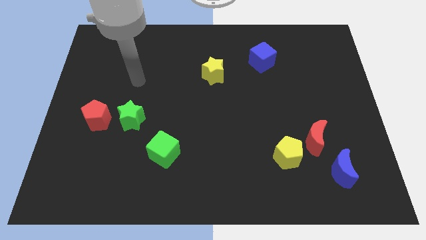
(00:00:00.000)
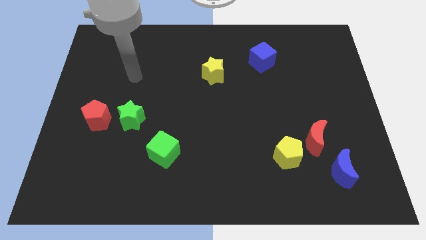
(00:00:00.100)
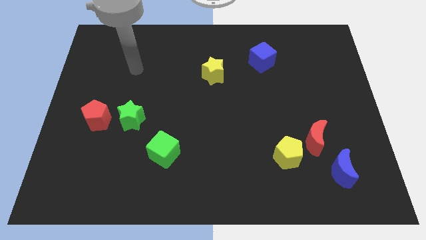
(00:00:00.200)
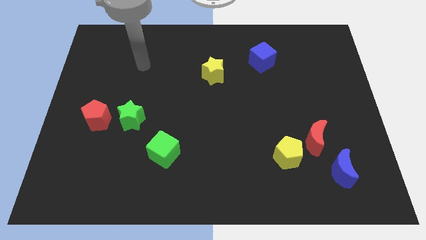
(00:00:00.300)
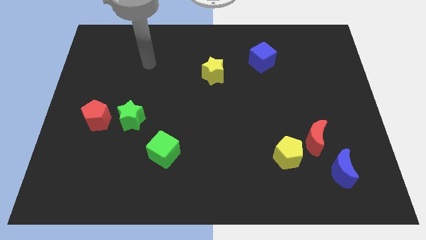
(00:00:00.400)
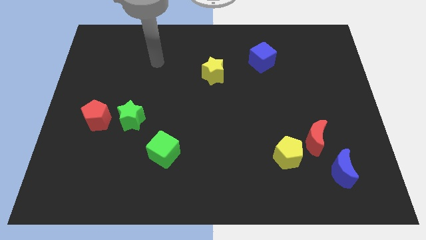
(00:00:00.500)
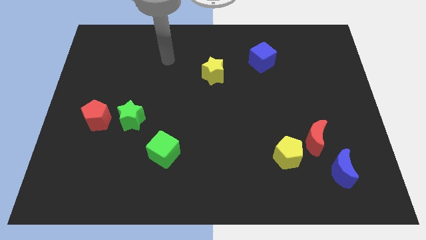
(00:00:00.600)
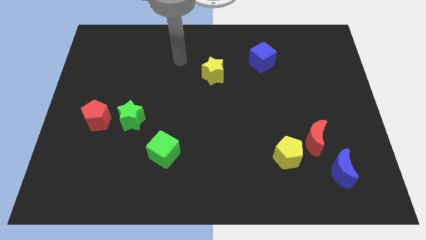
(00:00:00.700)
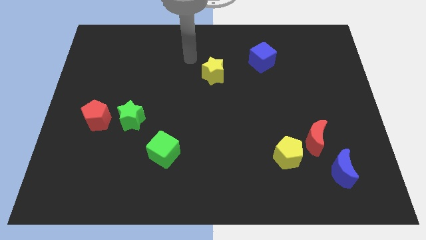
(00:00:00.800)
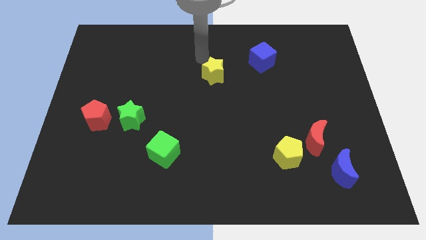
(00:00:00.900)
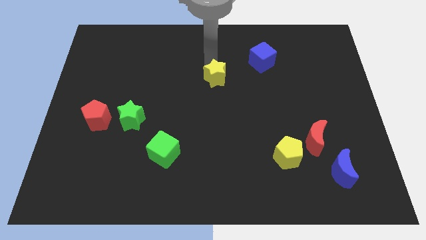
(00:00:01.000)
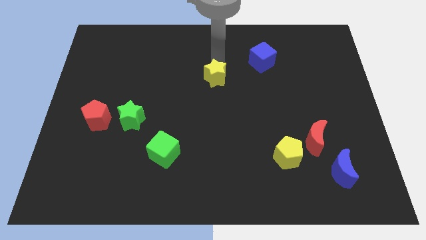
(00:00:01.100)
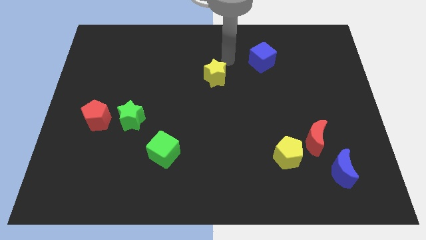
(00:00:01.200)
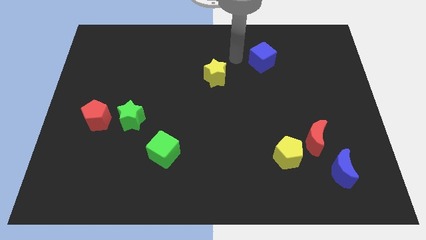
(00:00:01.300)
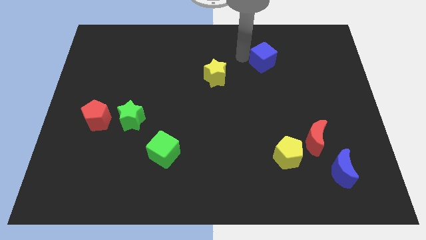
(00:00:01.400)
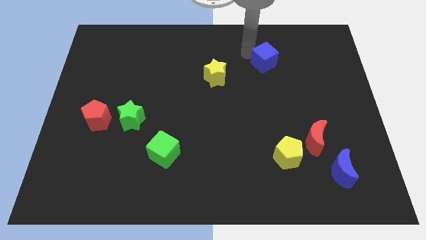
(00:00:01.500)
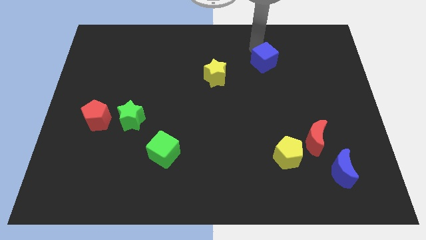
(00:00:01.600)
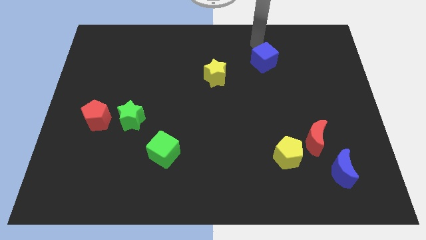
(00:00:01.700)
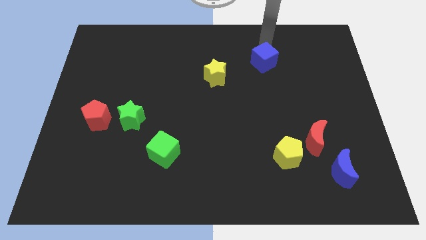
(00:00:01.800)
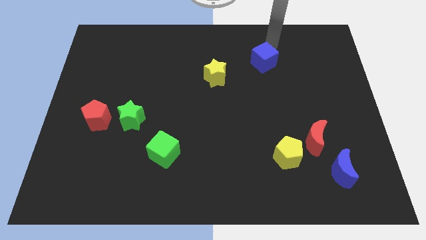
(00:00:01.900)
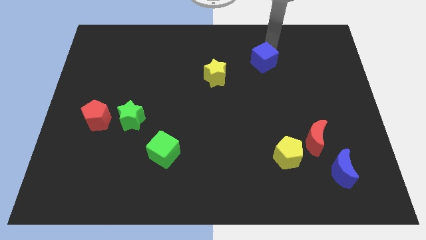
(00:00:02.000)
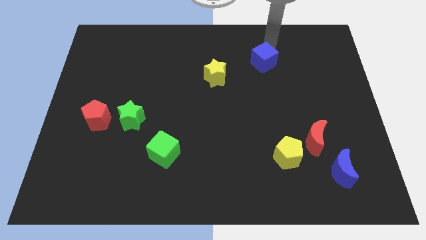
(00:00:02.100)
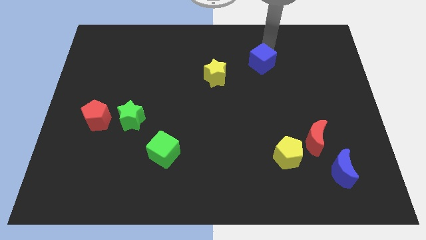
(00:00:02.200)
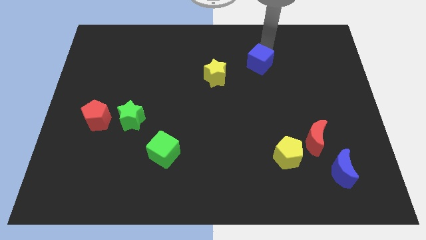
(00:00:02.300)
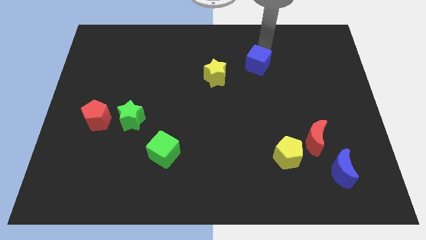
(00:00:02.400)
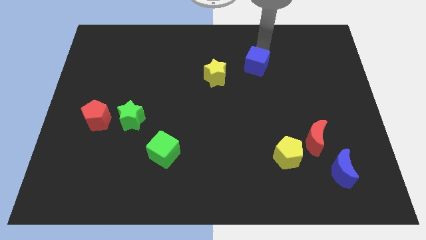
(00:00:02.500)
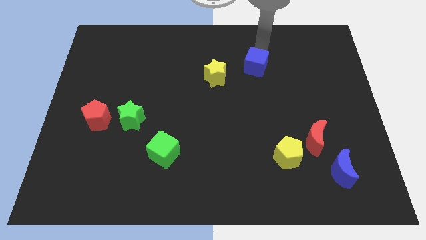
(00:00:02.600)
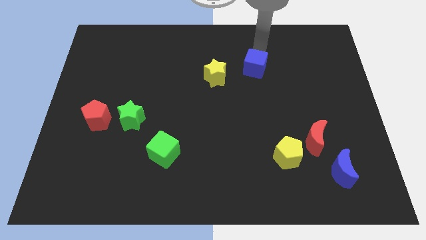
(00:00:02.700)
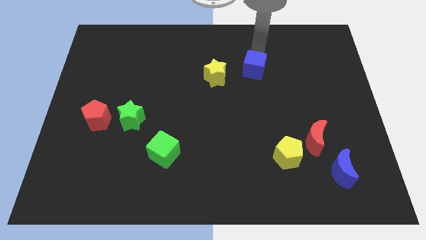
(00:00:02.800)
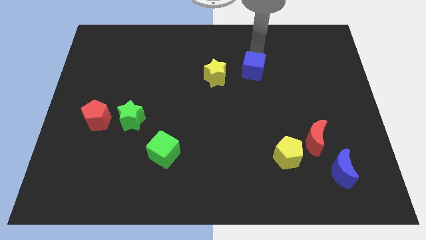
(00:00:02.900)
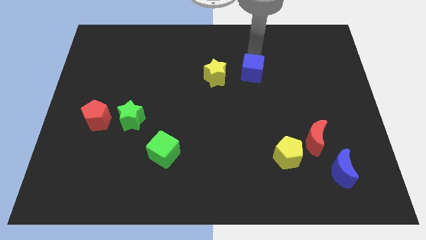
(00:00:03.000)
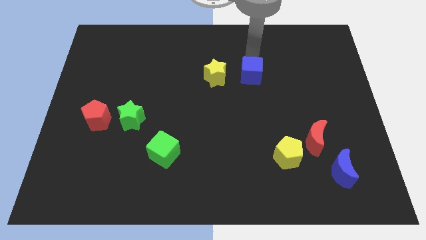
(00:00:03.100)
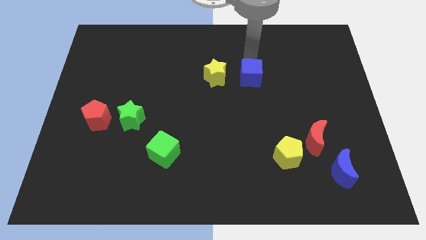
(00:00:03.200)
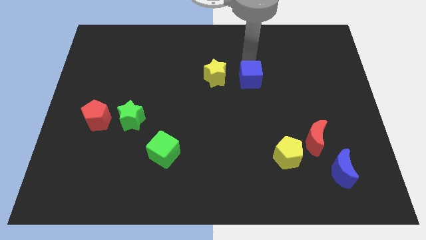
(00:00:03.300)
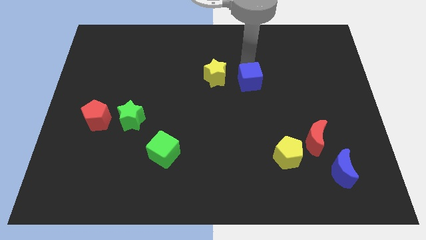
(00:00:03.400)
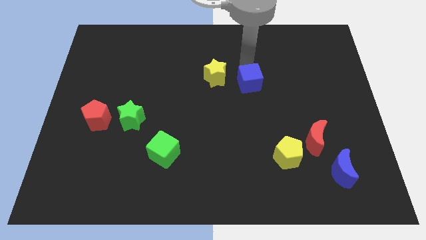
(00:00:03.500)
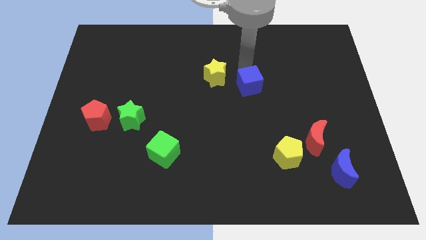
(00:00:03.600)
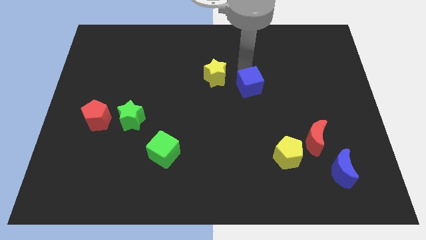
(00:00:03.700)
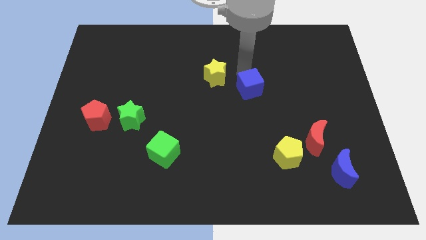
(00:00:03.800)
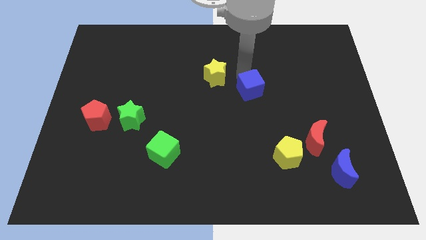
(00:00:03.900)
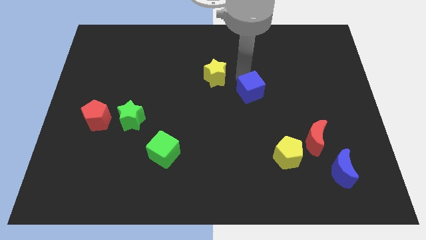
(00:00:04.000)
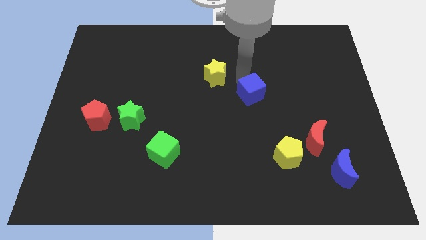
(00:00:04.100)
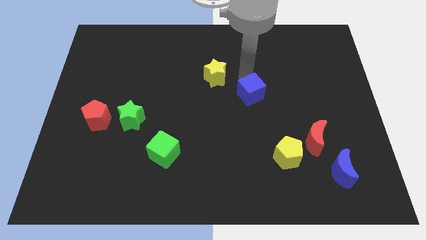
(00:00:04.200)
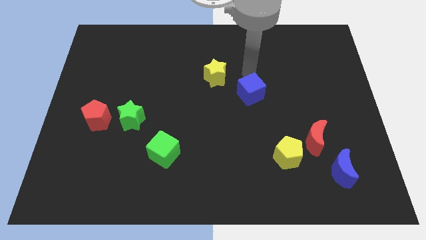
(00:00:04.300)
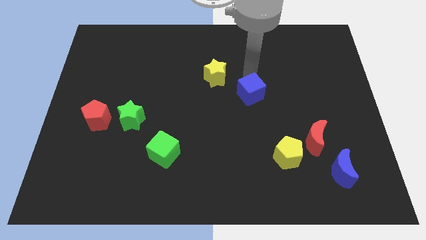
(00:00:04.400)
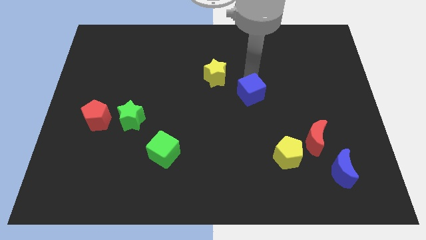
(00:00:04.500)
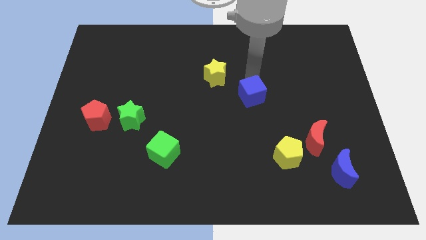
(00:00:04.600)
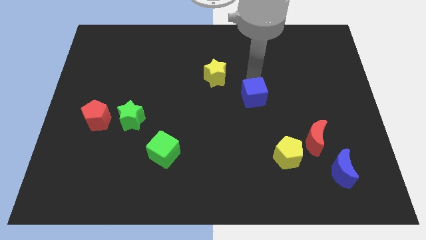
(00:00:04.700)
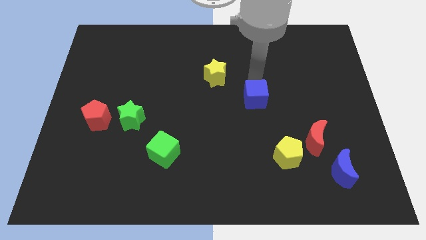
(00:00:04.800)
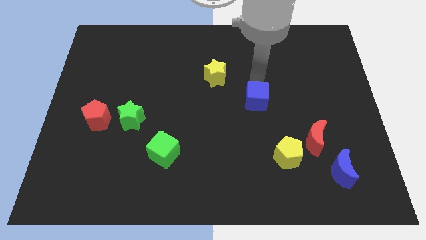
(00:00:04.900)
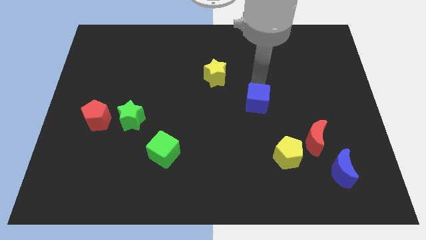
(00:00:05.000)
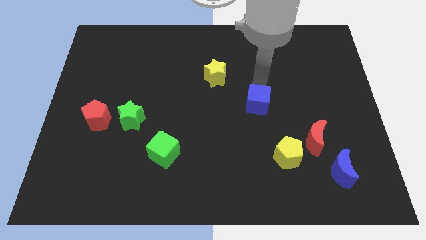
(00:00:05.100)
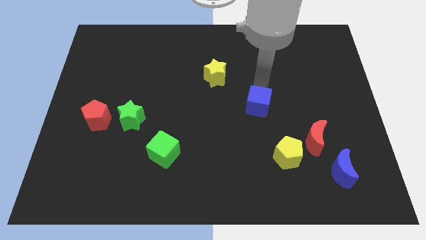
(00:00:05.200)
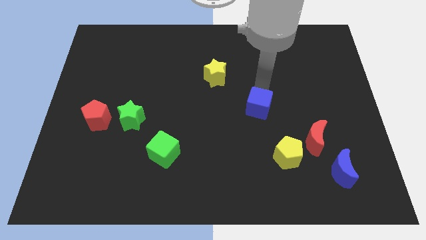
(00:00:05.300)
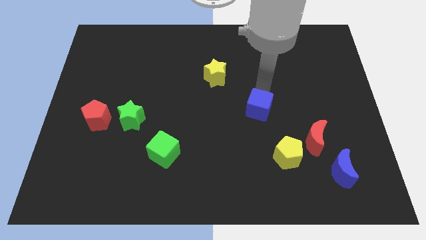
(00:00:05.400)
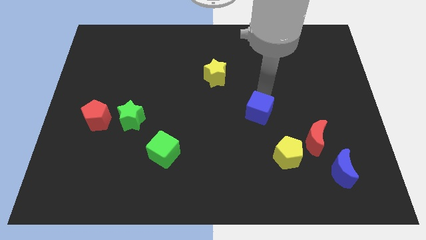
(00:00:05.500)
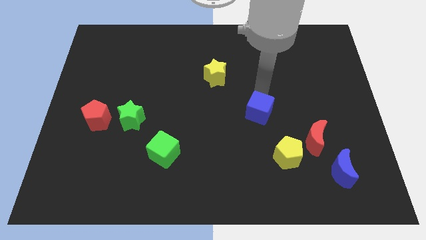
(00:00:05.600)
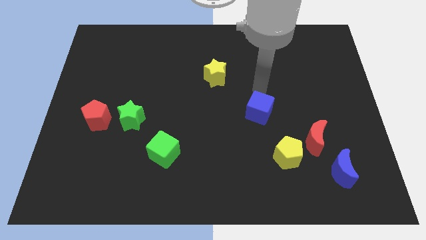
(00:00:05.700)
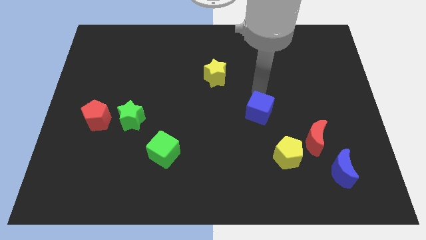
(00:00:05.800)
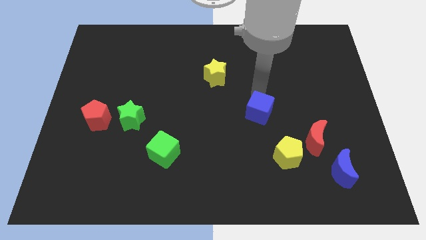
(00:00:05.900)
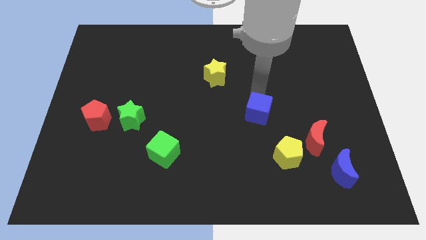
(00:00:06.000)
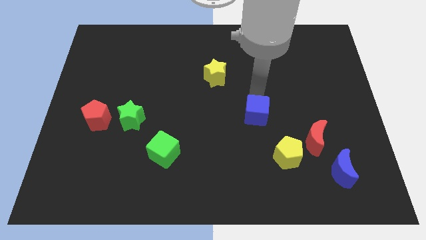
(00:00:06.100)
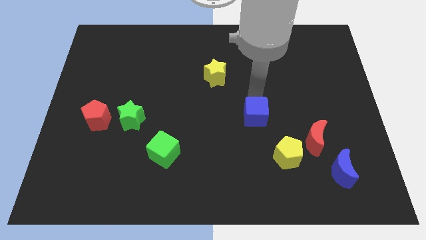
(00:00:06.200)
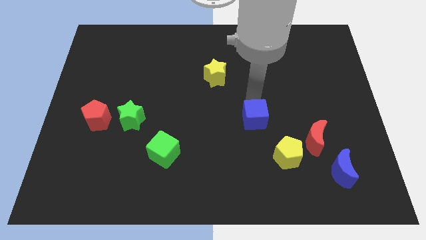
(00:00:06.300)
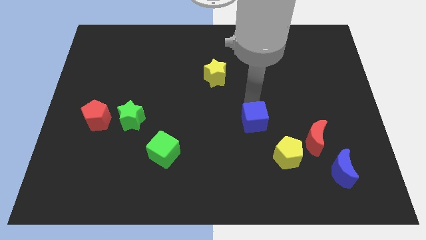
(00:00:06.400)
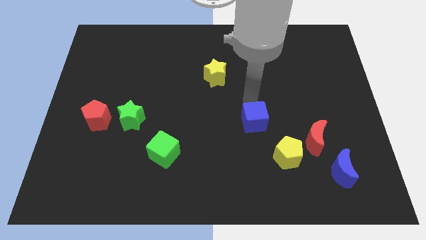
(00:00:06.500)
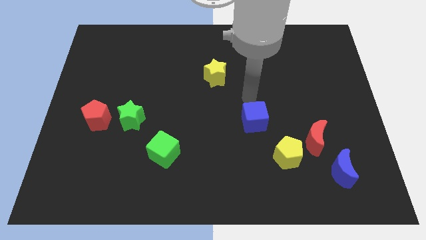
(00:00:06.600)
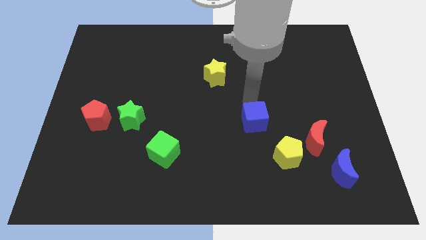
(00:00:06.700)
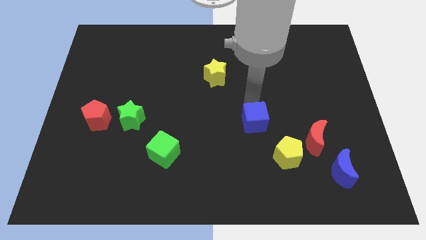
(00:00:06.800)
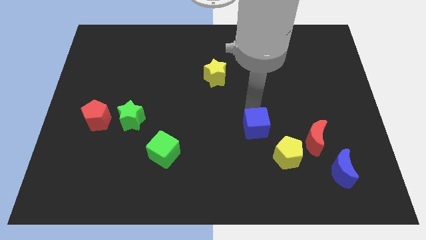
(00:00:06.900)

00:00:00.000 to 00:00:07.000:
push the blue cube downwards

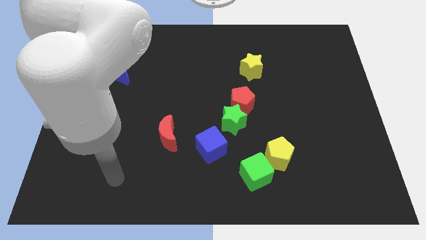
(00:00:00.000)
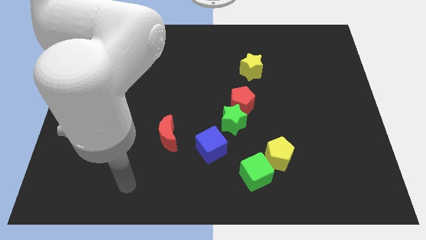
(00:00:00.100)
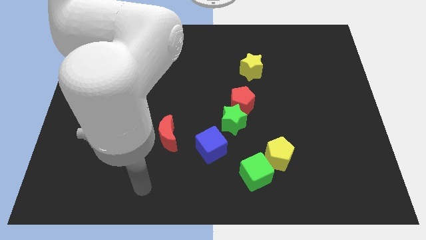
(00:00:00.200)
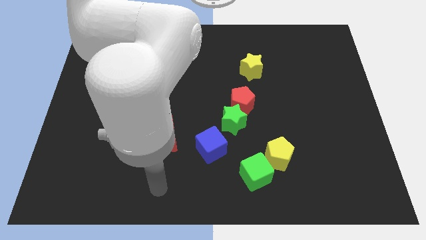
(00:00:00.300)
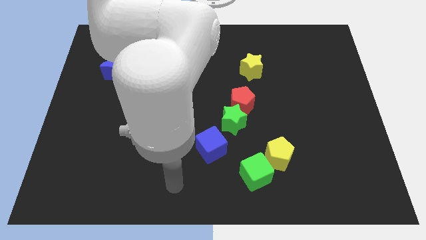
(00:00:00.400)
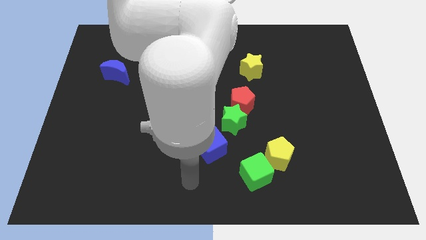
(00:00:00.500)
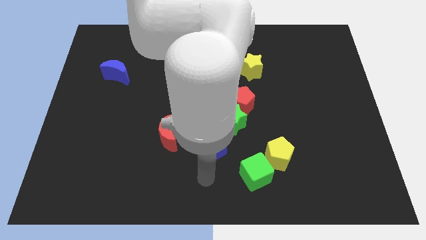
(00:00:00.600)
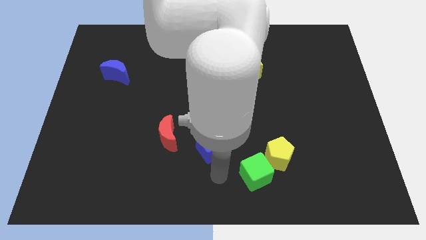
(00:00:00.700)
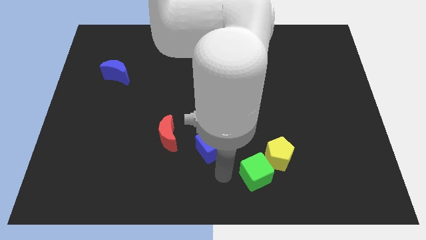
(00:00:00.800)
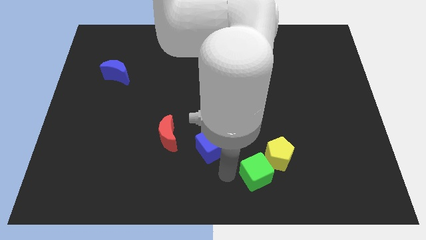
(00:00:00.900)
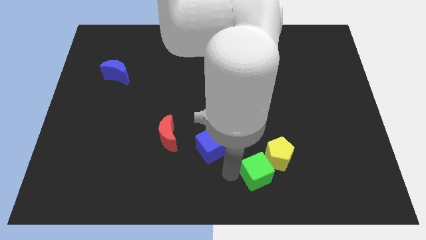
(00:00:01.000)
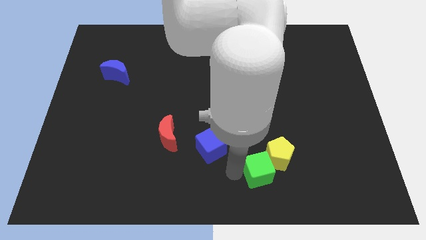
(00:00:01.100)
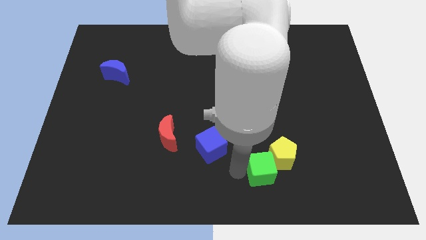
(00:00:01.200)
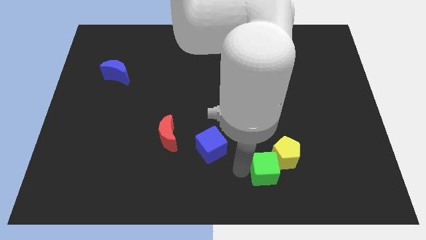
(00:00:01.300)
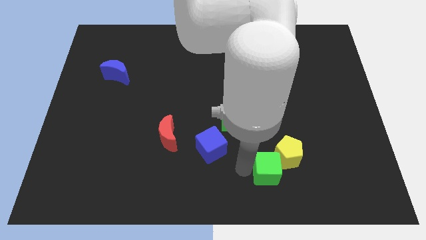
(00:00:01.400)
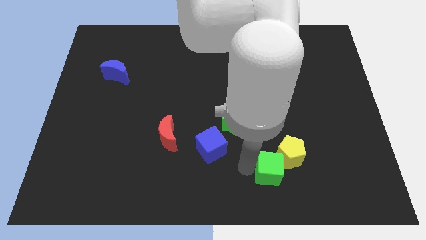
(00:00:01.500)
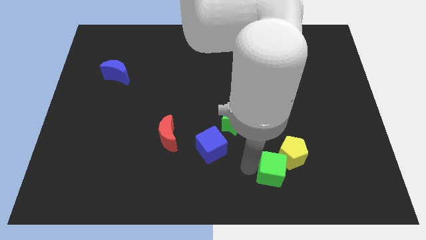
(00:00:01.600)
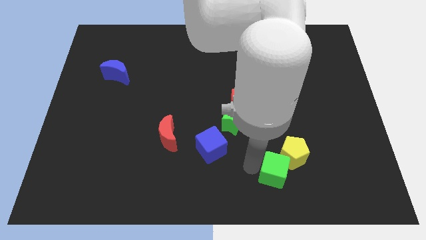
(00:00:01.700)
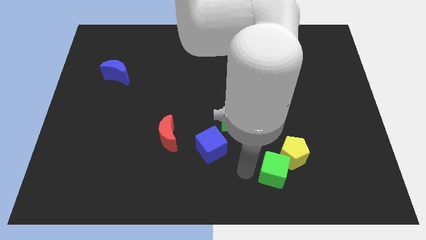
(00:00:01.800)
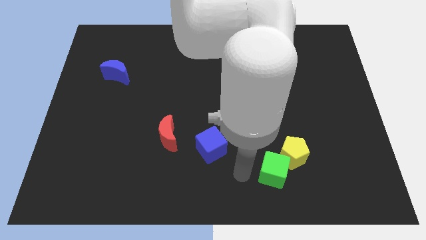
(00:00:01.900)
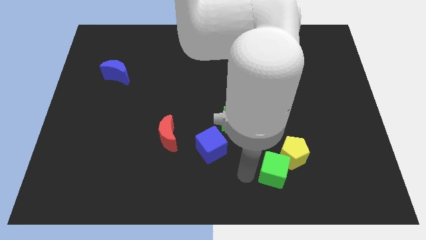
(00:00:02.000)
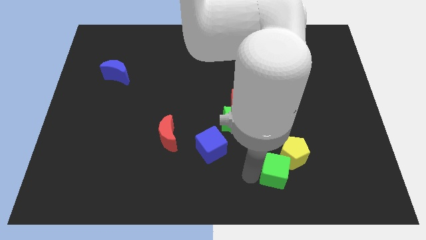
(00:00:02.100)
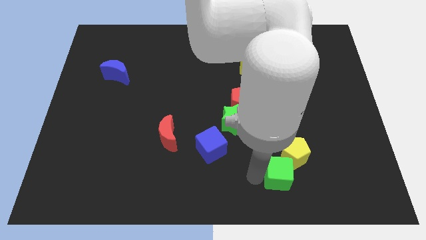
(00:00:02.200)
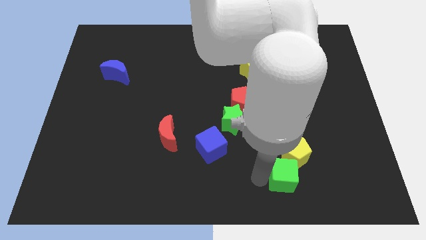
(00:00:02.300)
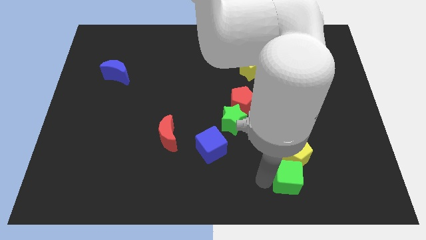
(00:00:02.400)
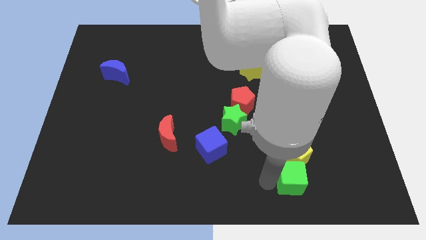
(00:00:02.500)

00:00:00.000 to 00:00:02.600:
push the green cube to the right somewhat
